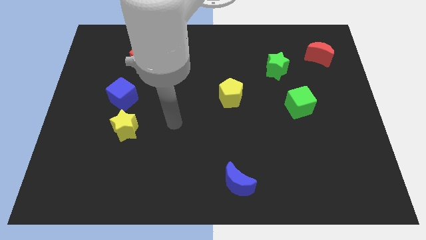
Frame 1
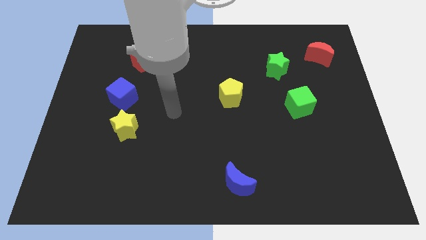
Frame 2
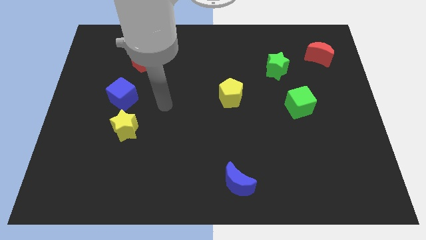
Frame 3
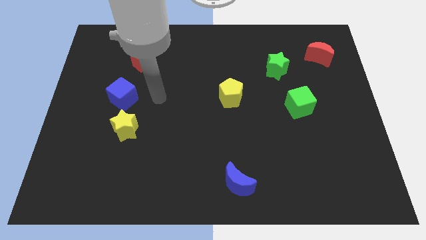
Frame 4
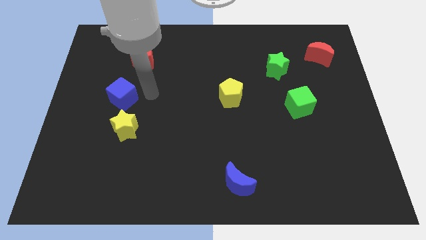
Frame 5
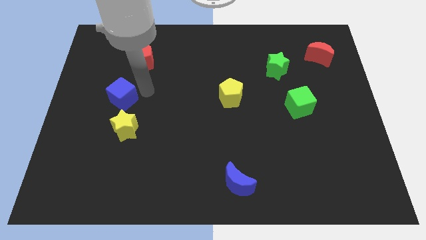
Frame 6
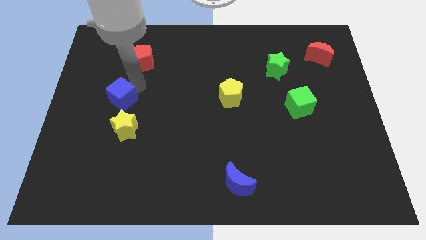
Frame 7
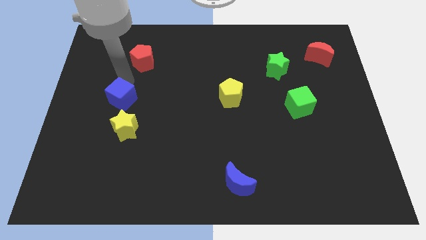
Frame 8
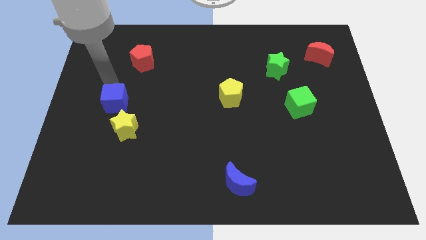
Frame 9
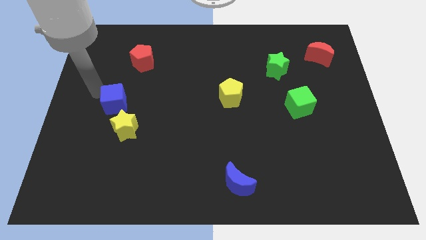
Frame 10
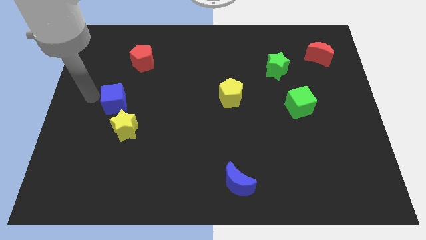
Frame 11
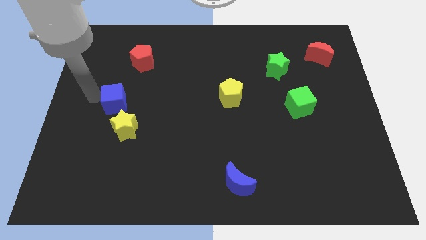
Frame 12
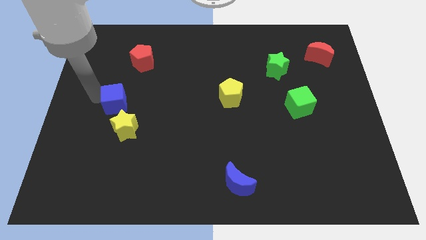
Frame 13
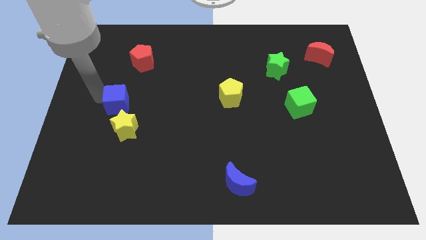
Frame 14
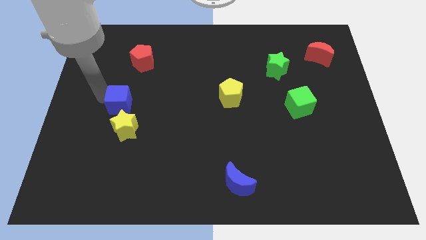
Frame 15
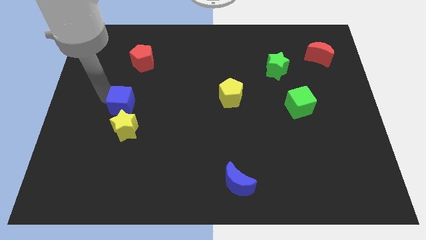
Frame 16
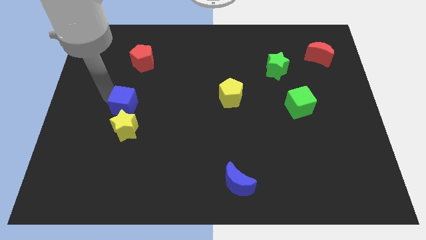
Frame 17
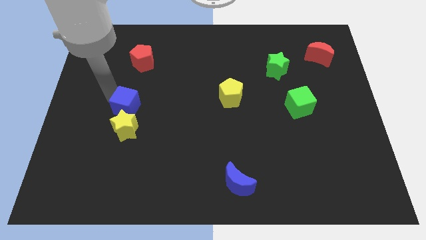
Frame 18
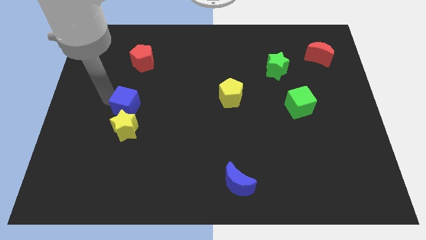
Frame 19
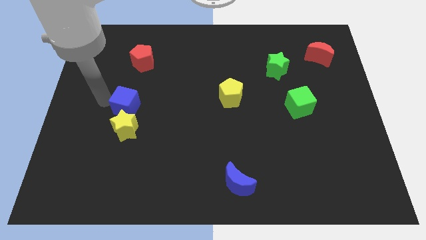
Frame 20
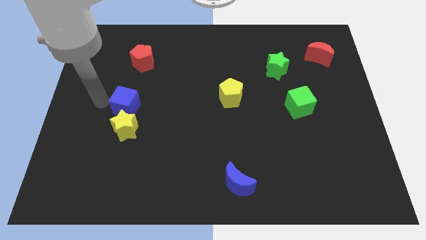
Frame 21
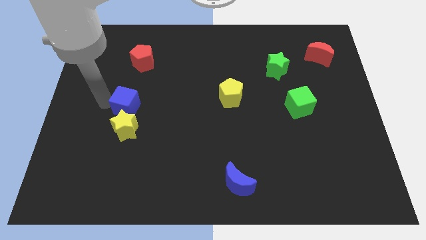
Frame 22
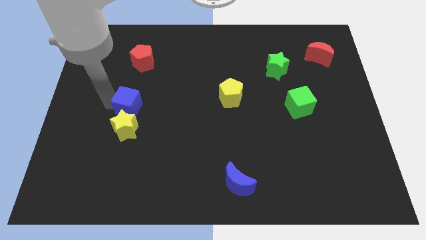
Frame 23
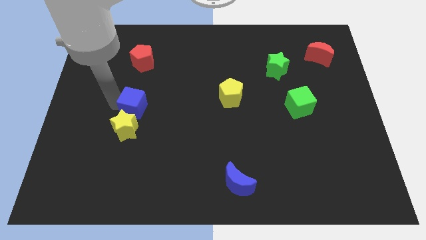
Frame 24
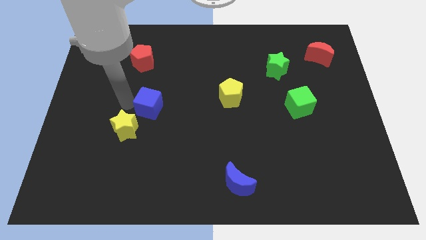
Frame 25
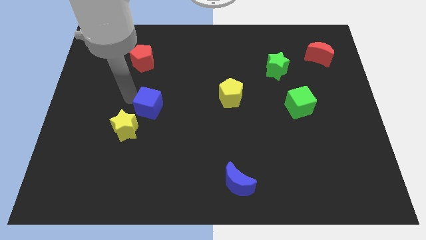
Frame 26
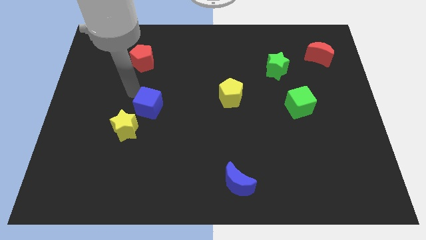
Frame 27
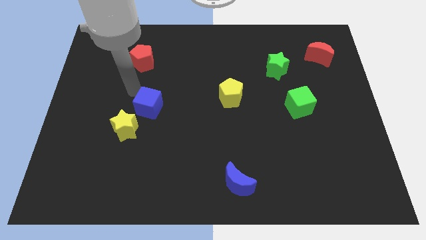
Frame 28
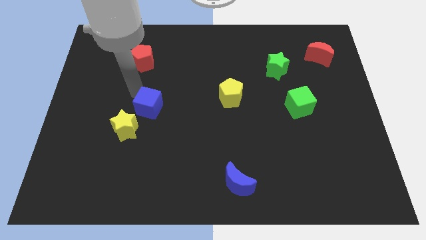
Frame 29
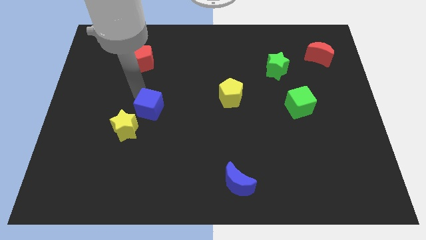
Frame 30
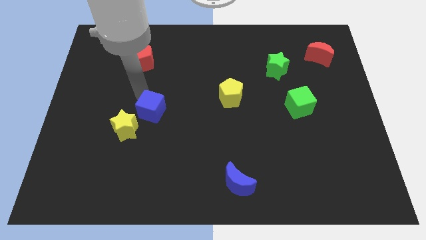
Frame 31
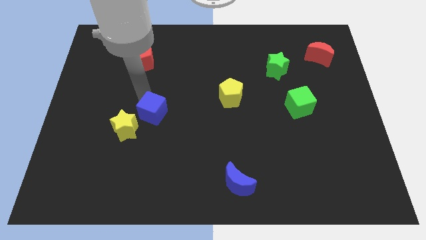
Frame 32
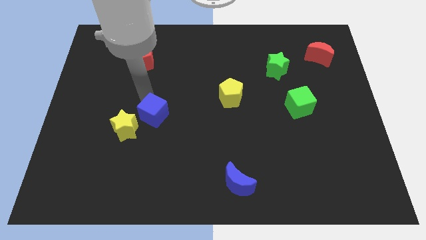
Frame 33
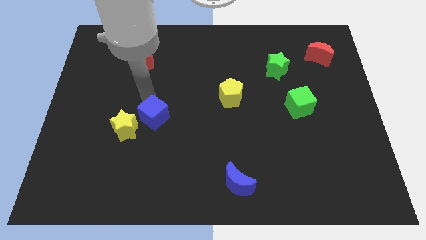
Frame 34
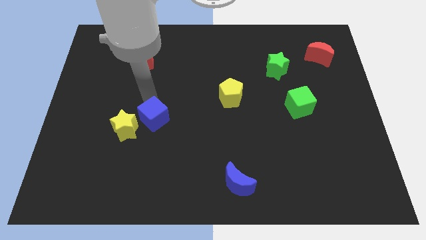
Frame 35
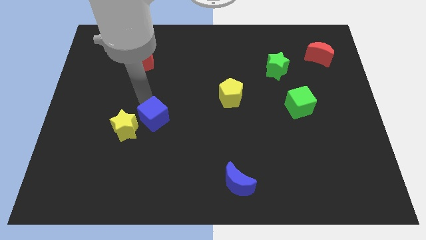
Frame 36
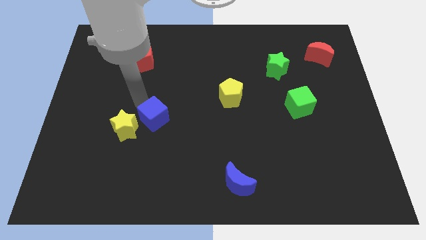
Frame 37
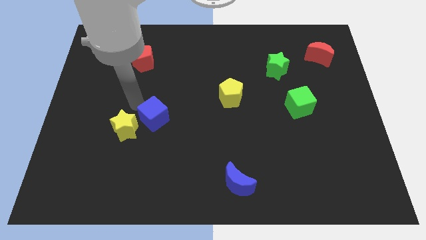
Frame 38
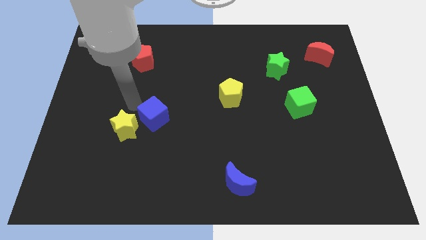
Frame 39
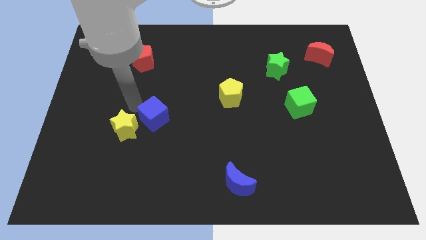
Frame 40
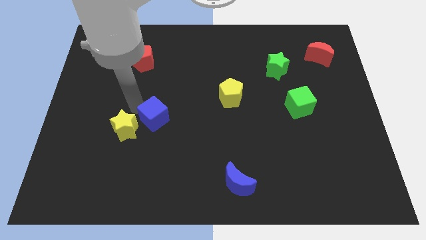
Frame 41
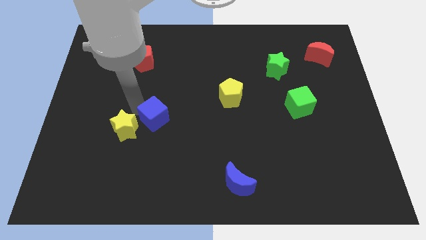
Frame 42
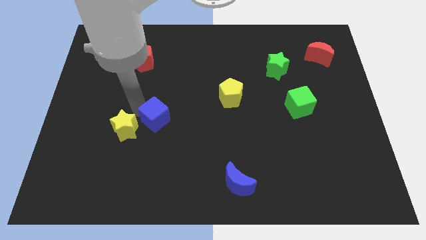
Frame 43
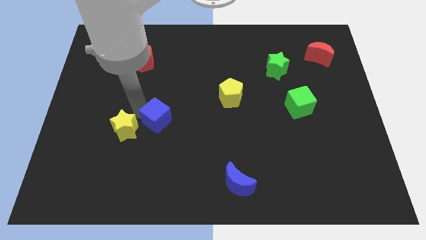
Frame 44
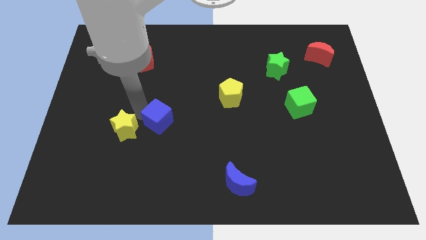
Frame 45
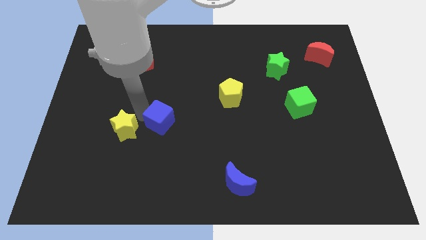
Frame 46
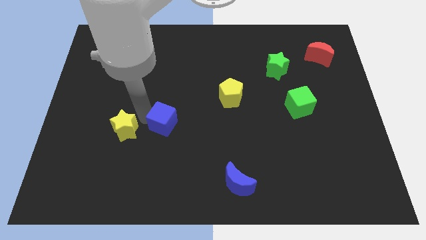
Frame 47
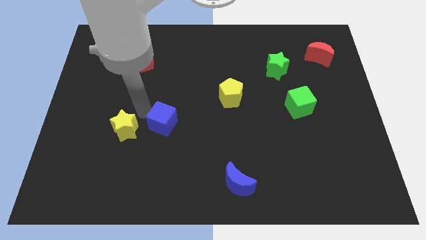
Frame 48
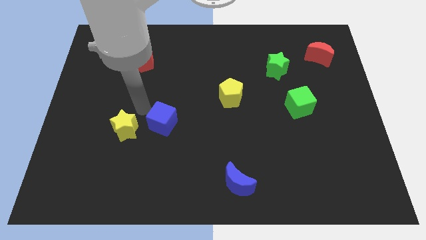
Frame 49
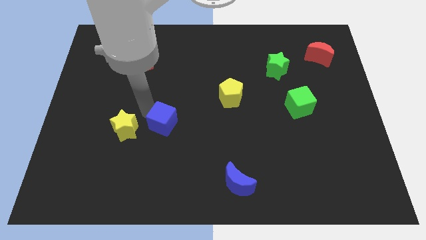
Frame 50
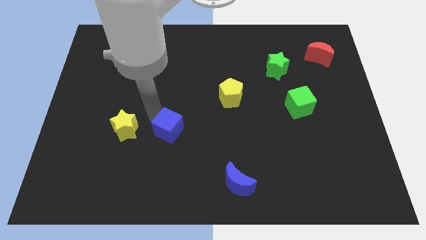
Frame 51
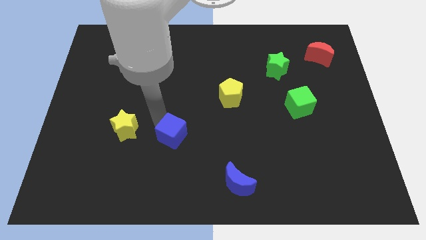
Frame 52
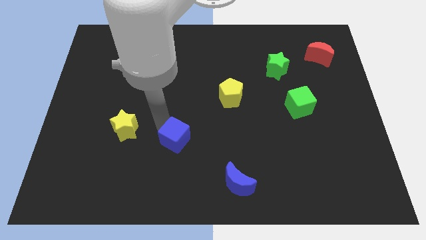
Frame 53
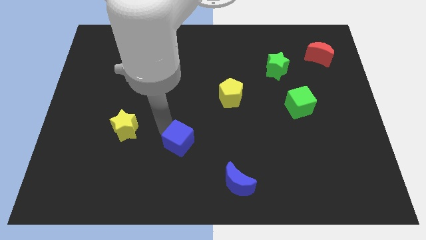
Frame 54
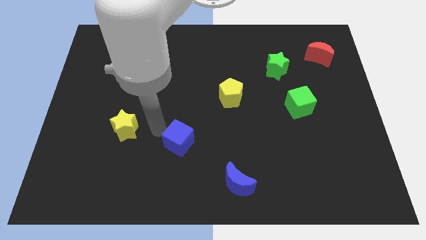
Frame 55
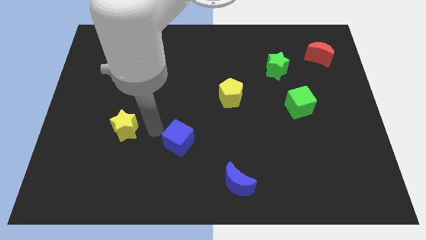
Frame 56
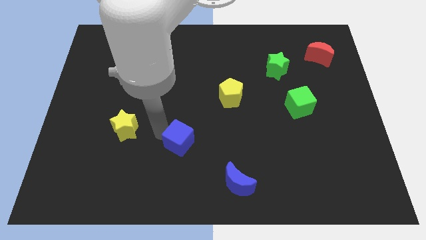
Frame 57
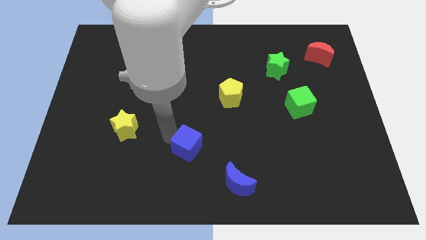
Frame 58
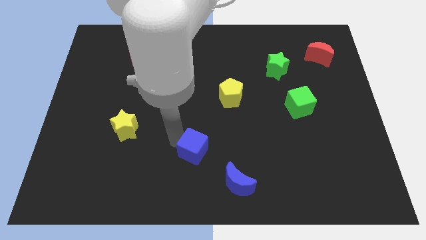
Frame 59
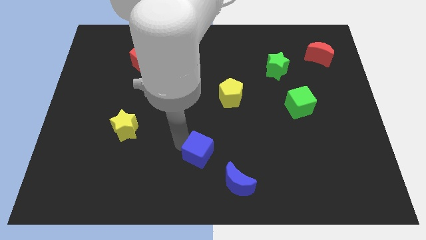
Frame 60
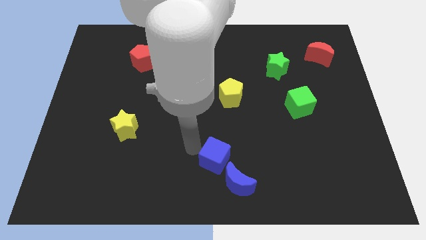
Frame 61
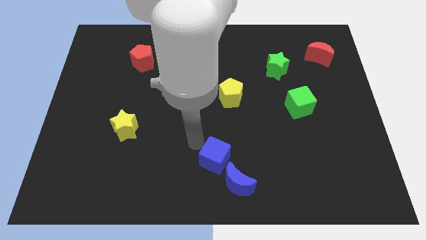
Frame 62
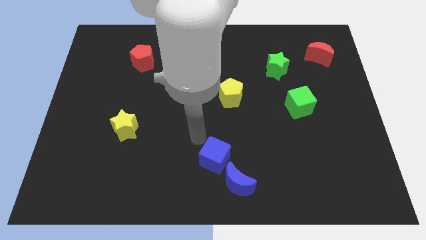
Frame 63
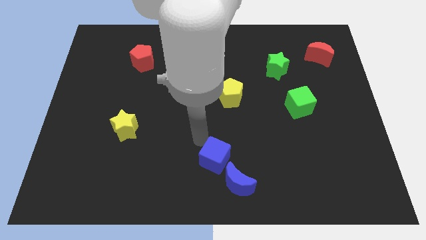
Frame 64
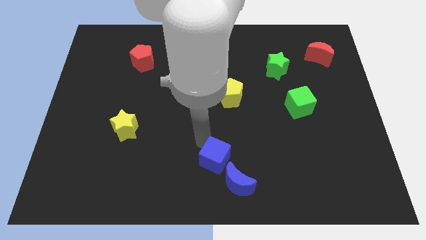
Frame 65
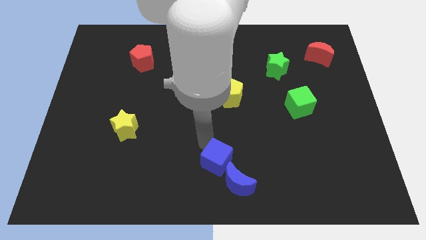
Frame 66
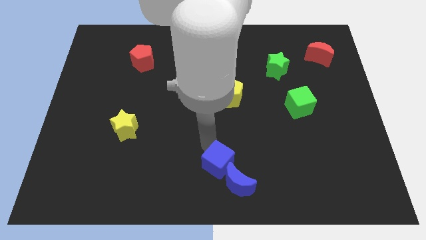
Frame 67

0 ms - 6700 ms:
slide the blue cube close to the blue moon

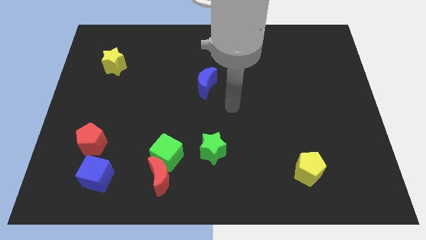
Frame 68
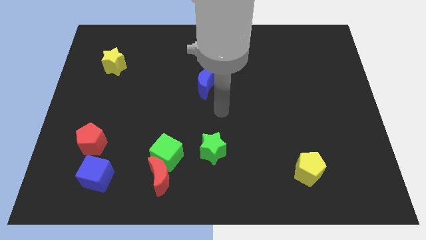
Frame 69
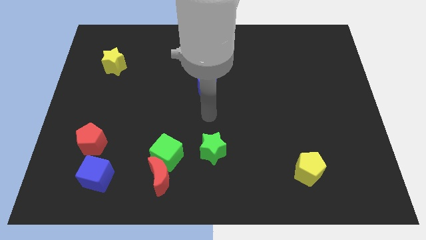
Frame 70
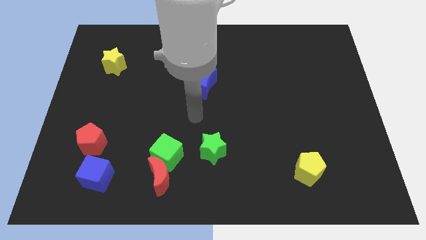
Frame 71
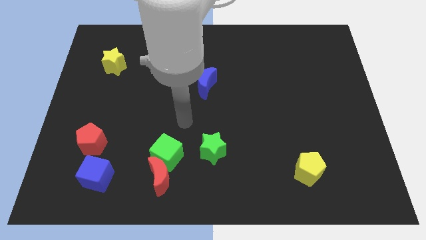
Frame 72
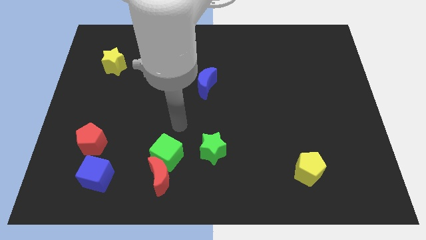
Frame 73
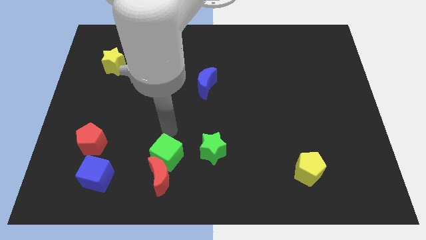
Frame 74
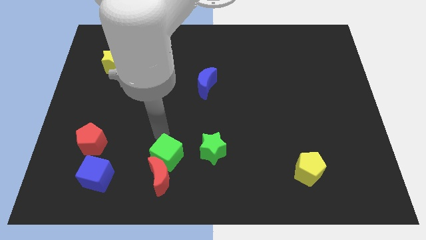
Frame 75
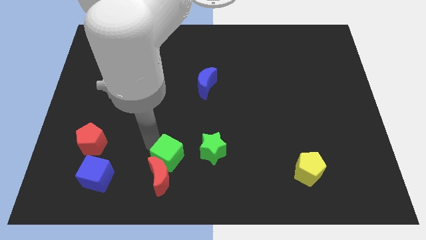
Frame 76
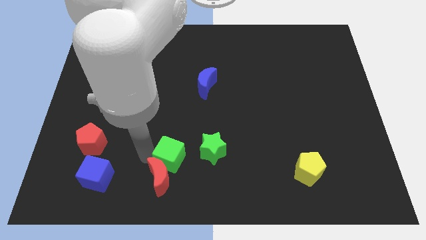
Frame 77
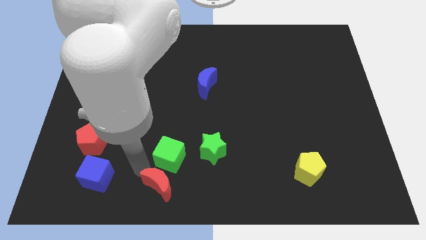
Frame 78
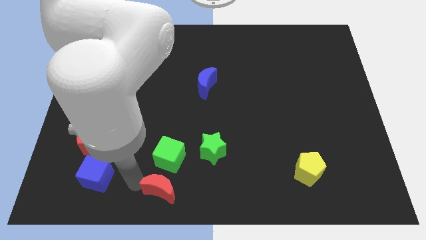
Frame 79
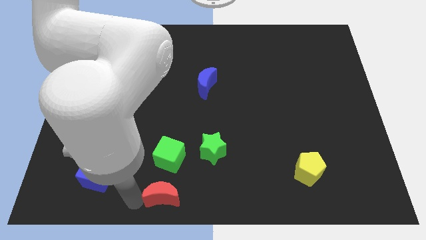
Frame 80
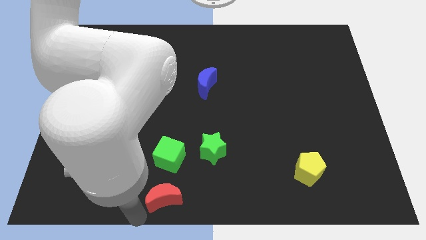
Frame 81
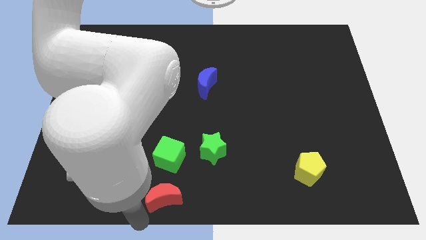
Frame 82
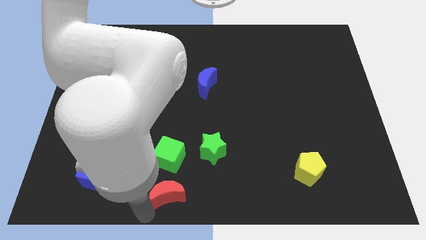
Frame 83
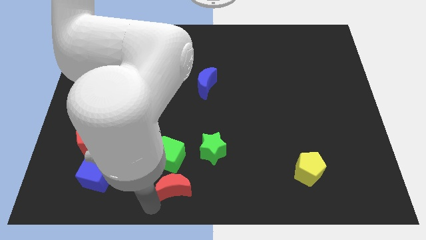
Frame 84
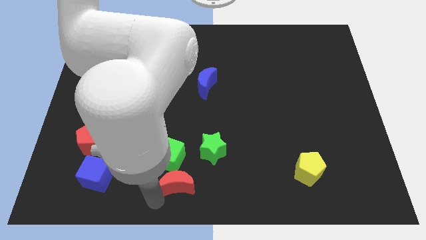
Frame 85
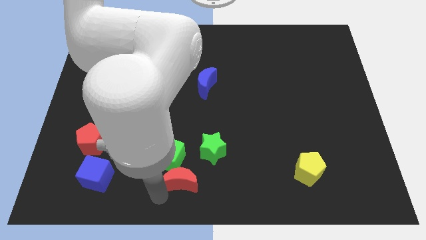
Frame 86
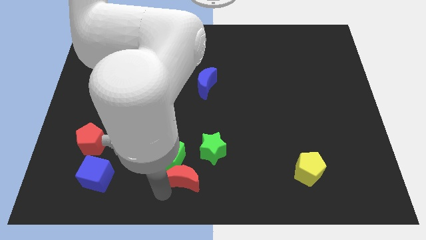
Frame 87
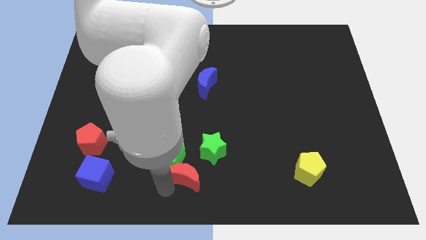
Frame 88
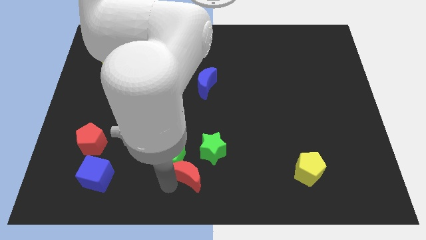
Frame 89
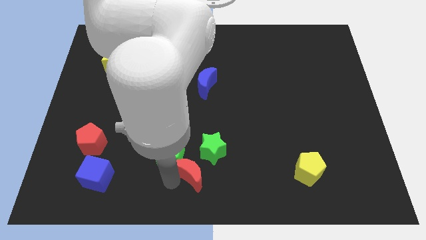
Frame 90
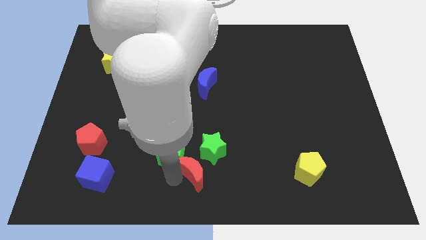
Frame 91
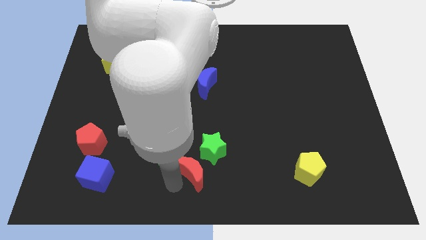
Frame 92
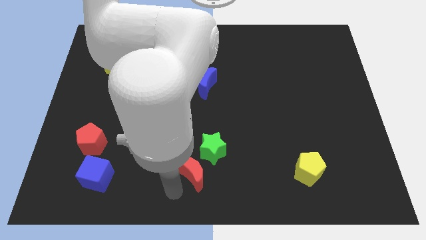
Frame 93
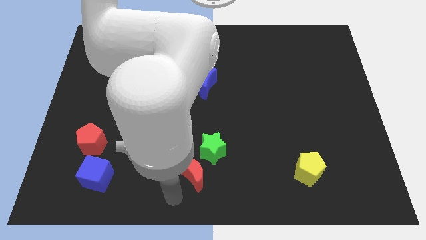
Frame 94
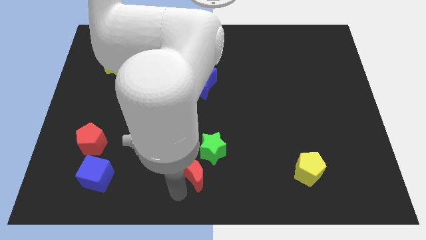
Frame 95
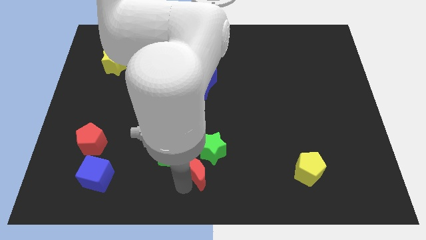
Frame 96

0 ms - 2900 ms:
move the red moon close to the green star
